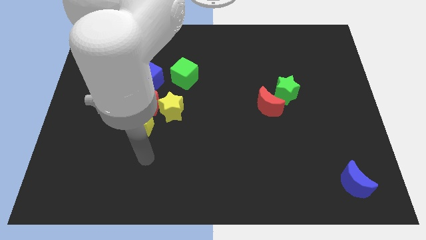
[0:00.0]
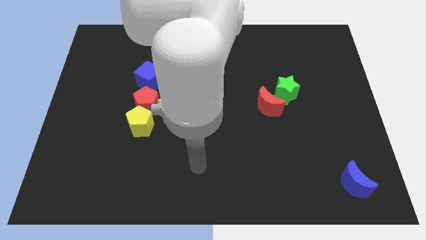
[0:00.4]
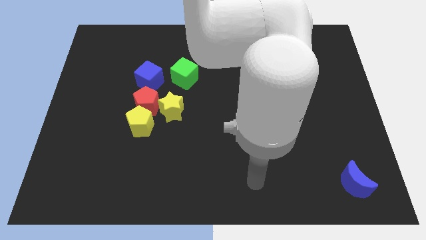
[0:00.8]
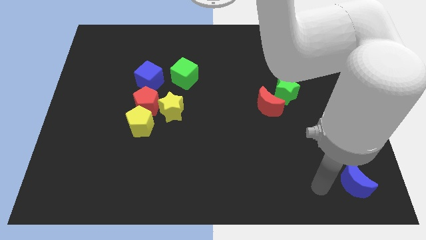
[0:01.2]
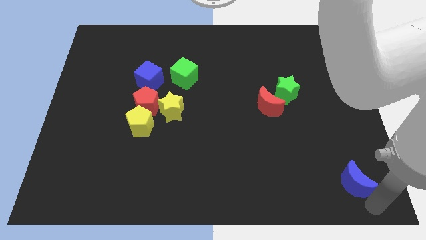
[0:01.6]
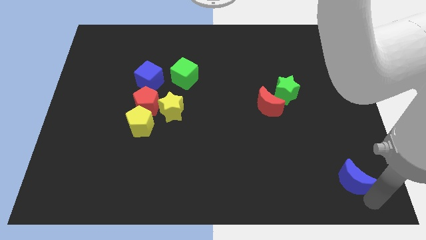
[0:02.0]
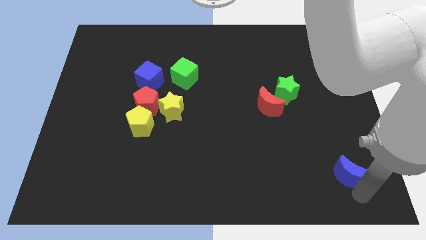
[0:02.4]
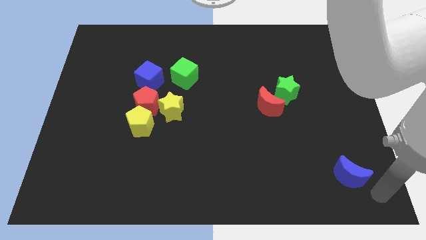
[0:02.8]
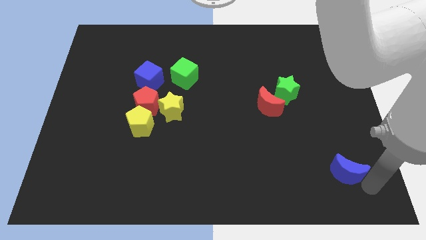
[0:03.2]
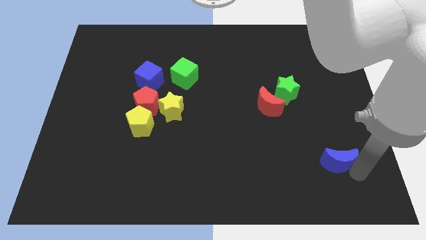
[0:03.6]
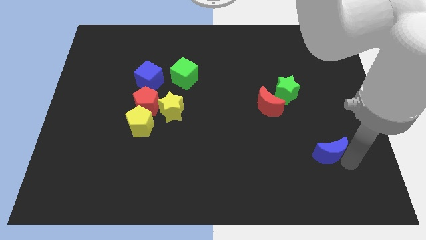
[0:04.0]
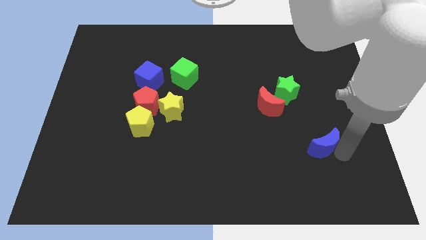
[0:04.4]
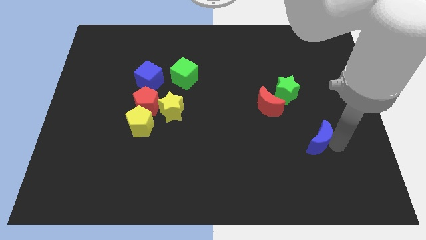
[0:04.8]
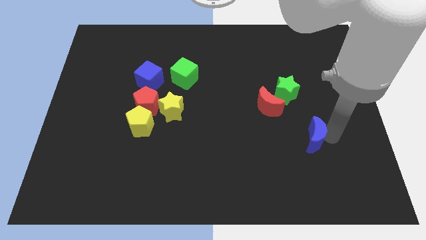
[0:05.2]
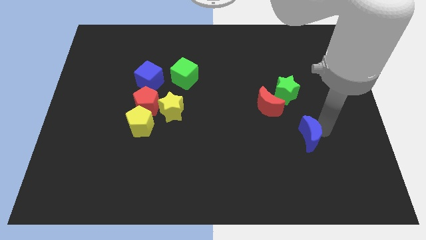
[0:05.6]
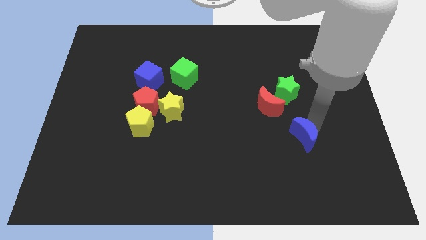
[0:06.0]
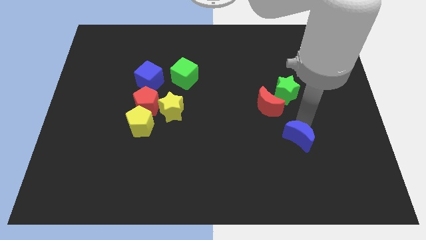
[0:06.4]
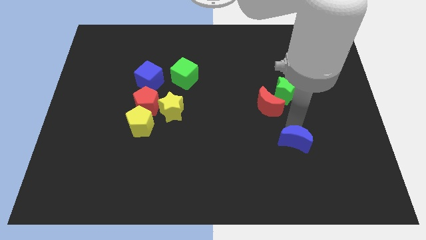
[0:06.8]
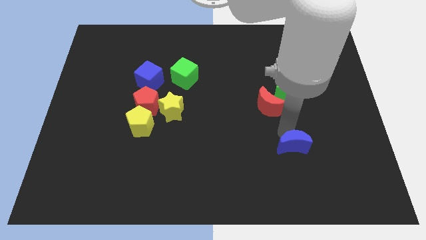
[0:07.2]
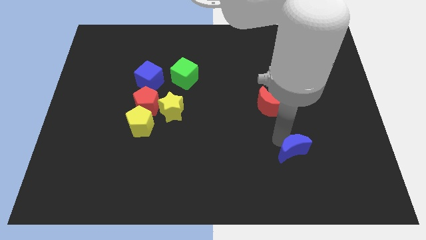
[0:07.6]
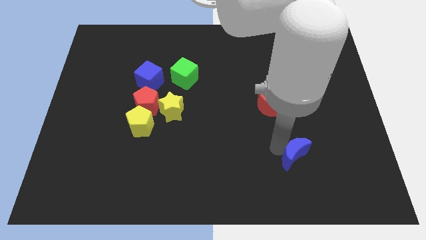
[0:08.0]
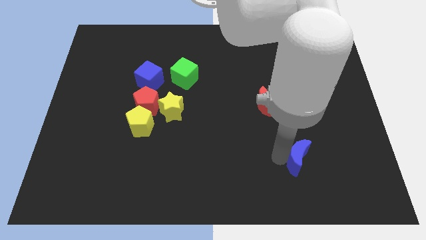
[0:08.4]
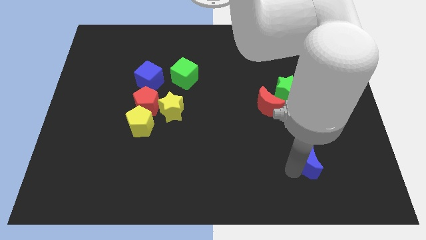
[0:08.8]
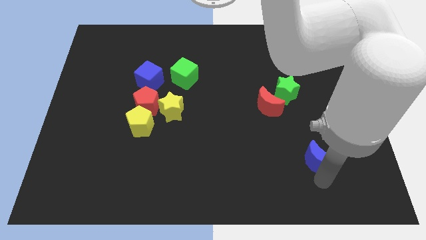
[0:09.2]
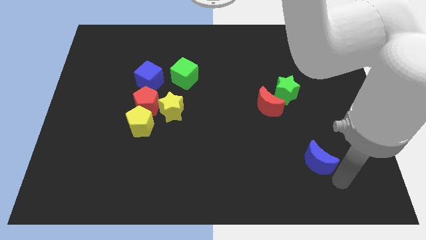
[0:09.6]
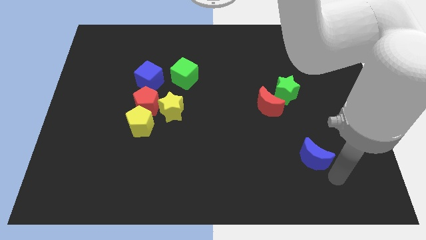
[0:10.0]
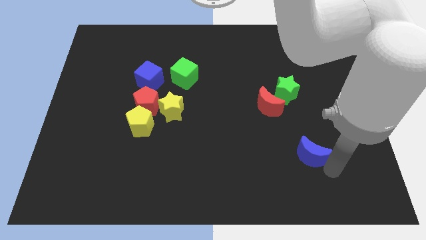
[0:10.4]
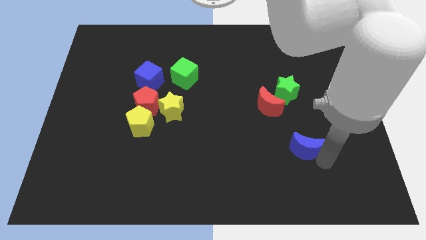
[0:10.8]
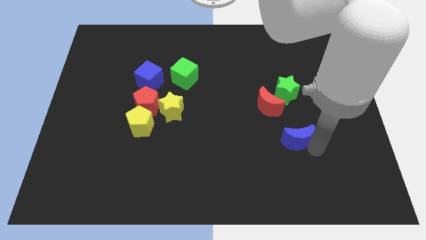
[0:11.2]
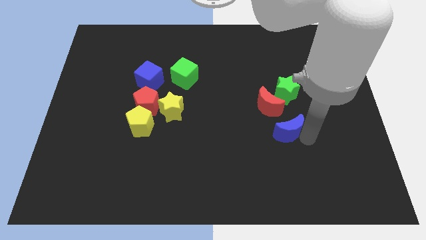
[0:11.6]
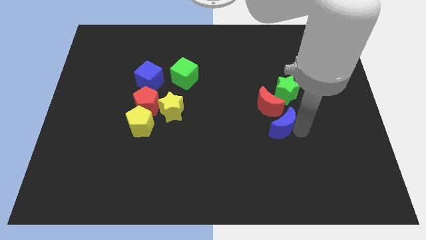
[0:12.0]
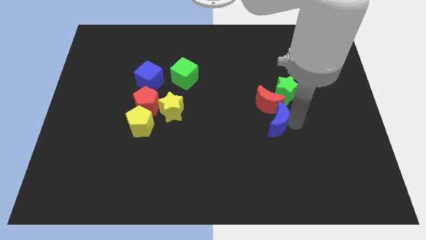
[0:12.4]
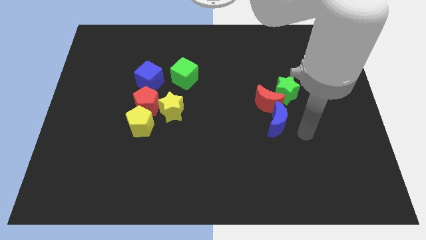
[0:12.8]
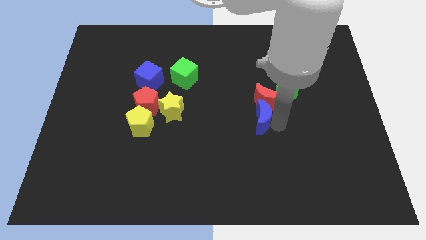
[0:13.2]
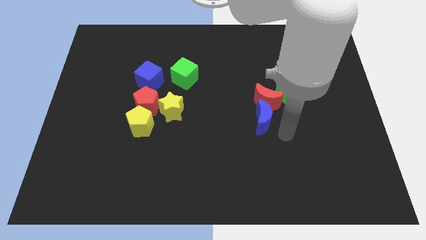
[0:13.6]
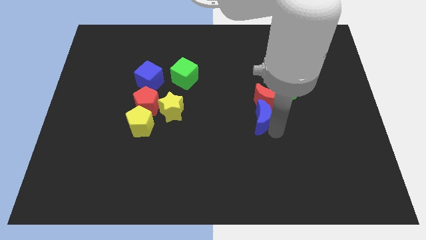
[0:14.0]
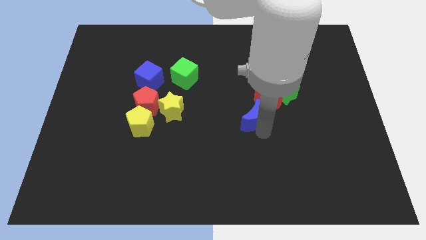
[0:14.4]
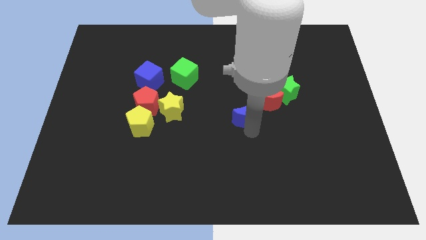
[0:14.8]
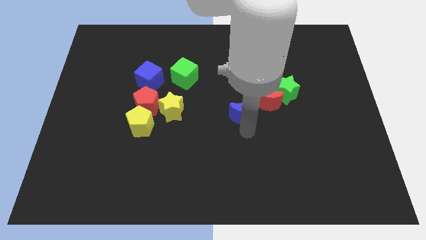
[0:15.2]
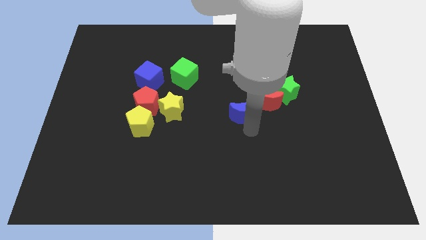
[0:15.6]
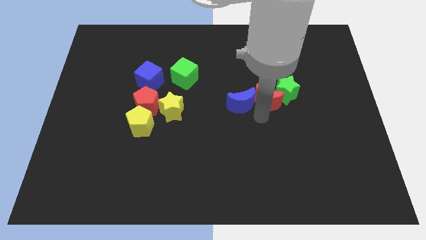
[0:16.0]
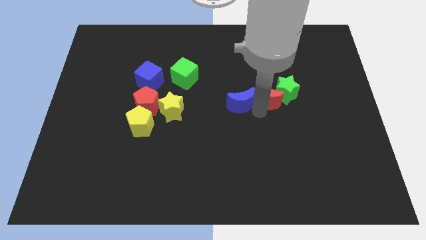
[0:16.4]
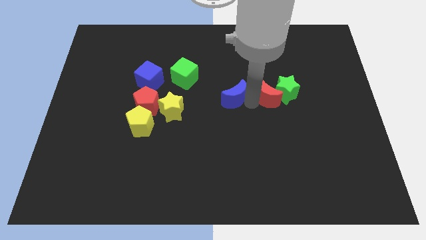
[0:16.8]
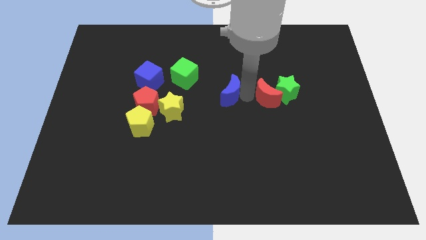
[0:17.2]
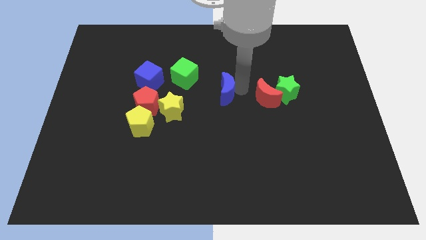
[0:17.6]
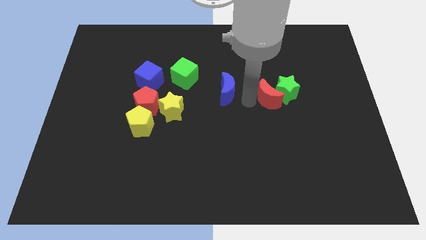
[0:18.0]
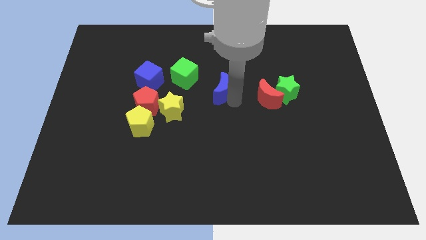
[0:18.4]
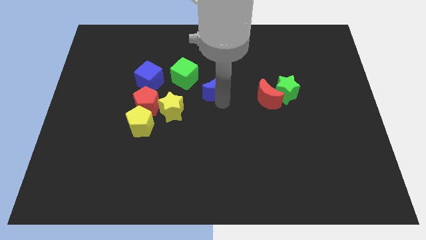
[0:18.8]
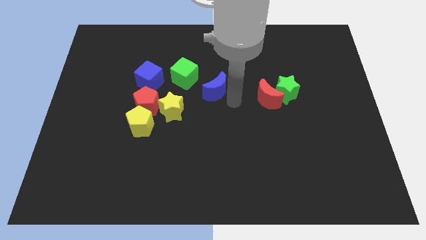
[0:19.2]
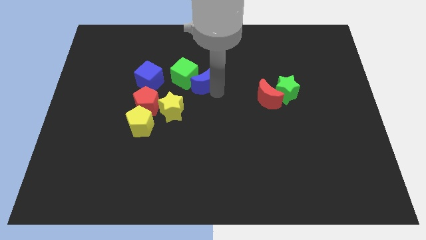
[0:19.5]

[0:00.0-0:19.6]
put the blue moon to the green cube

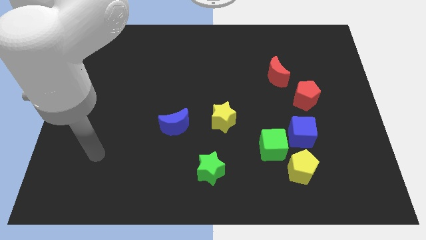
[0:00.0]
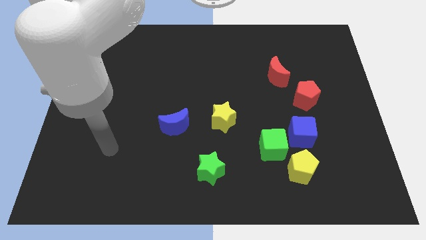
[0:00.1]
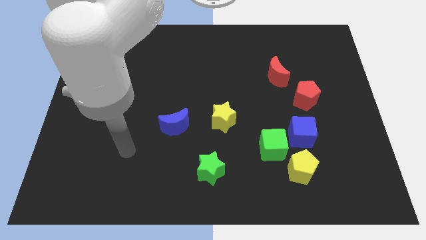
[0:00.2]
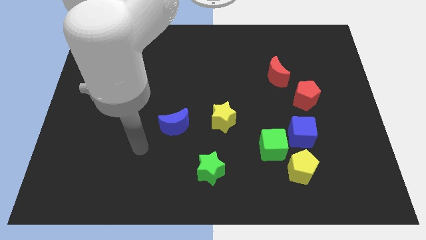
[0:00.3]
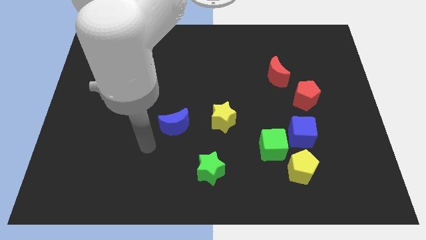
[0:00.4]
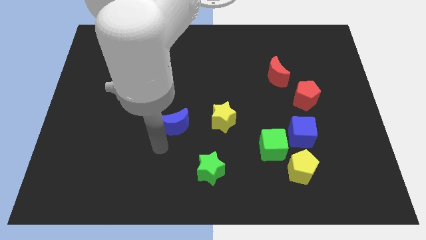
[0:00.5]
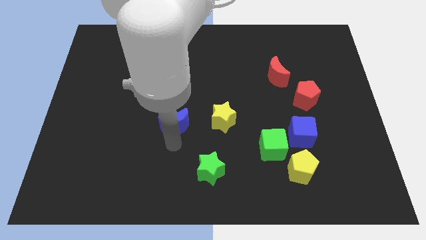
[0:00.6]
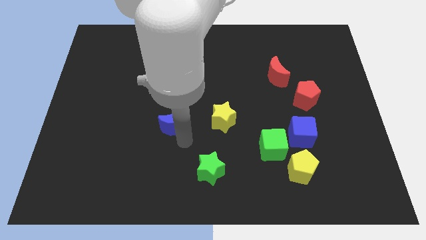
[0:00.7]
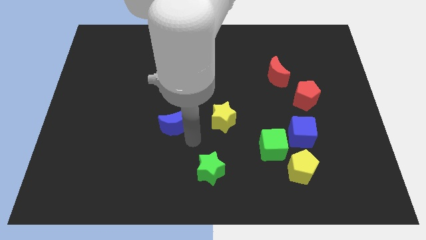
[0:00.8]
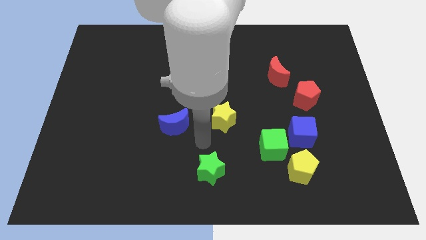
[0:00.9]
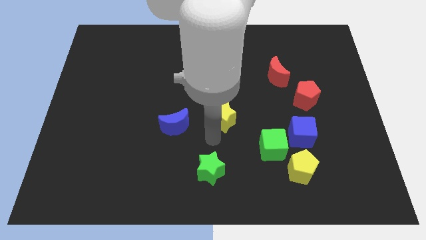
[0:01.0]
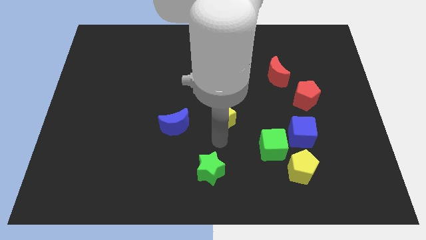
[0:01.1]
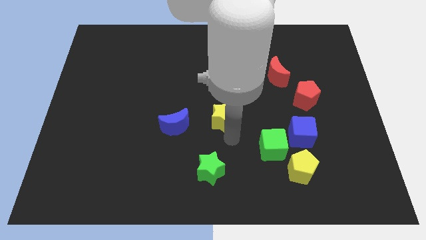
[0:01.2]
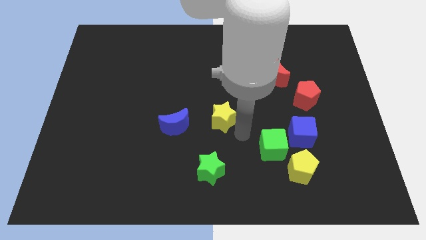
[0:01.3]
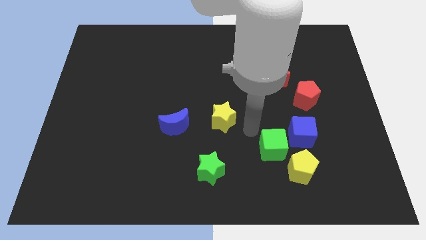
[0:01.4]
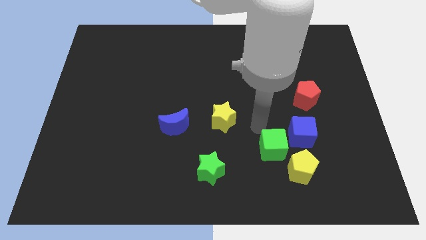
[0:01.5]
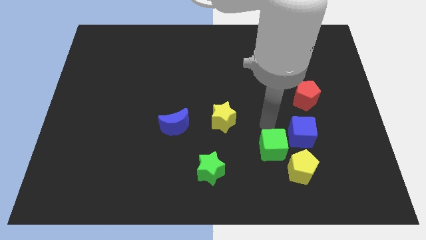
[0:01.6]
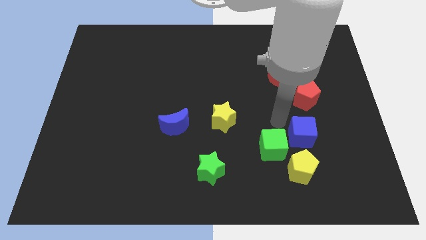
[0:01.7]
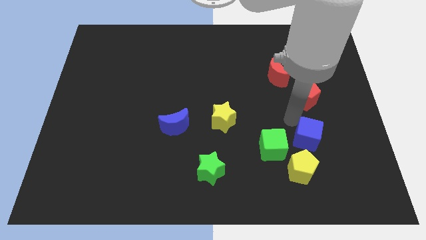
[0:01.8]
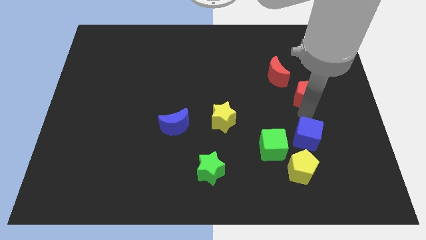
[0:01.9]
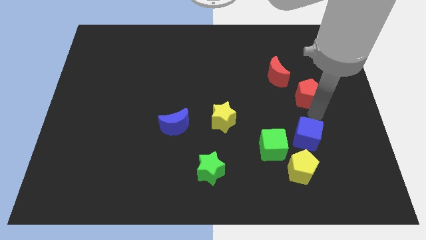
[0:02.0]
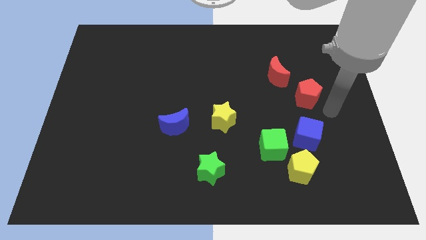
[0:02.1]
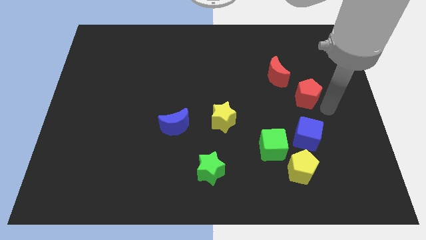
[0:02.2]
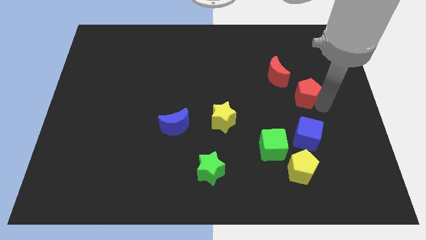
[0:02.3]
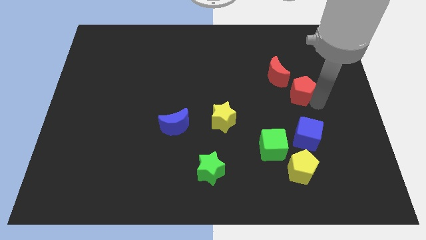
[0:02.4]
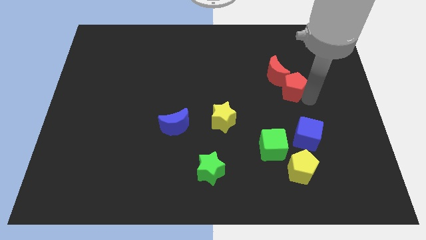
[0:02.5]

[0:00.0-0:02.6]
push the red pentagon next to the red moon
